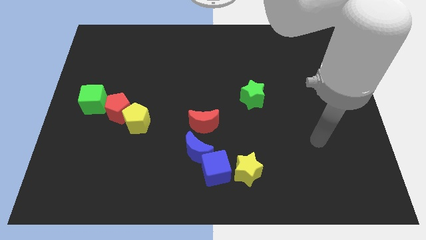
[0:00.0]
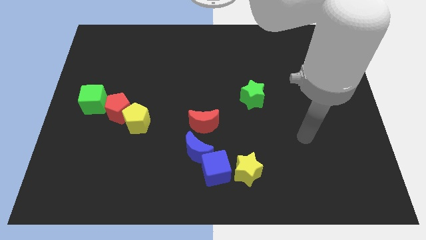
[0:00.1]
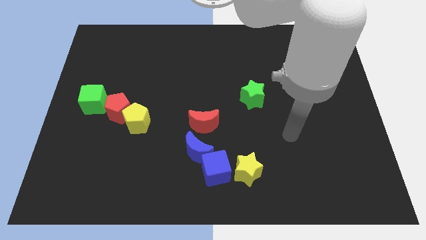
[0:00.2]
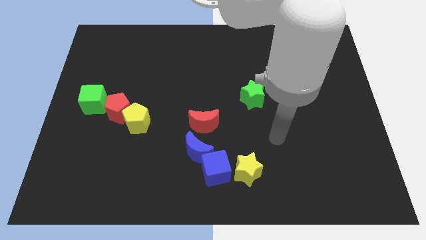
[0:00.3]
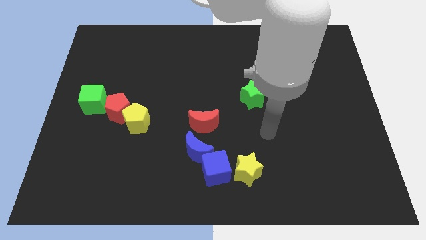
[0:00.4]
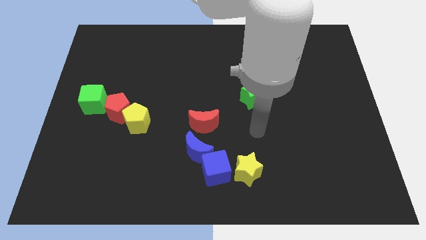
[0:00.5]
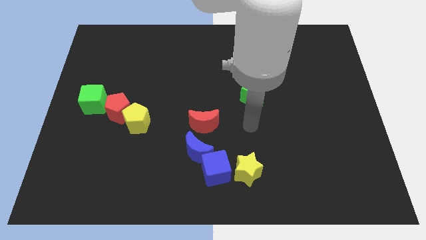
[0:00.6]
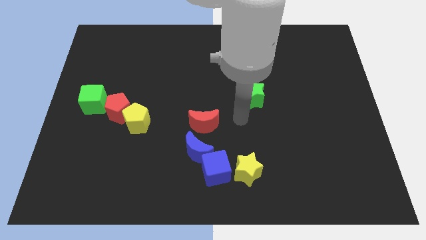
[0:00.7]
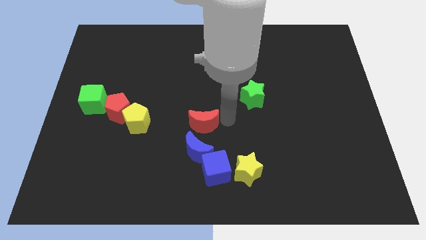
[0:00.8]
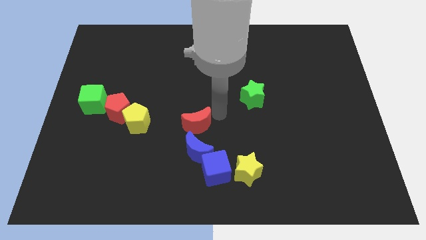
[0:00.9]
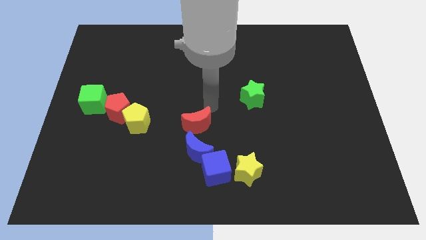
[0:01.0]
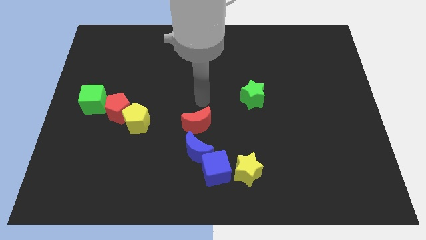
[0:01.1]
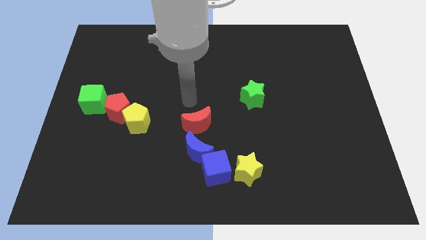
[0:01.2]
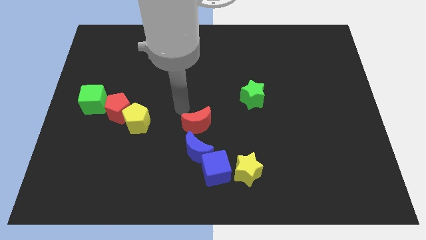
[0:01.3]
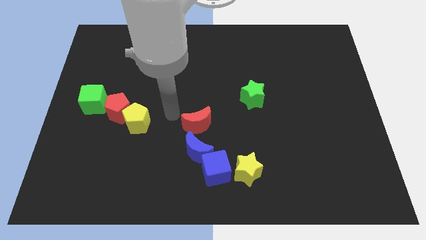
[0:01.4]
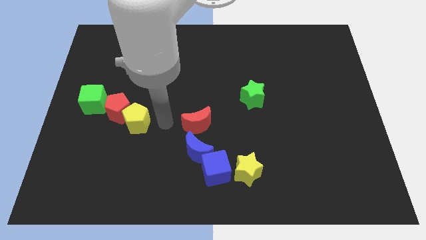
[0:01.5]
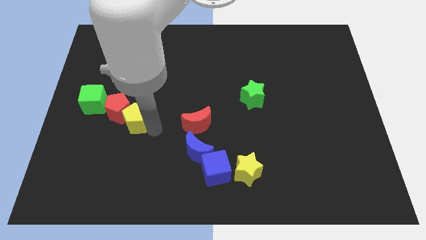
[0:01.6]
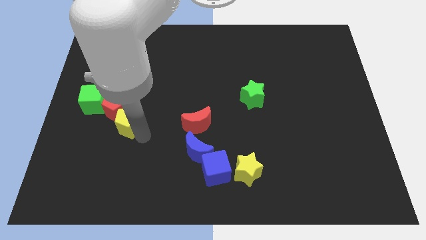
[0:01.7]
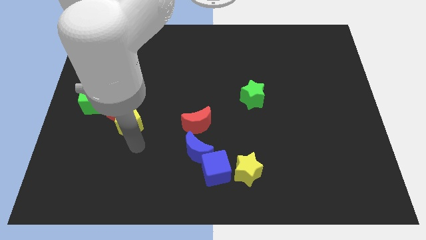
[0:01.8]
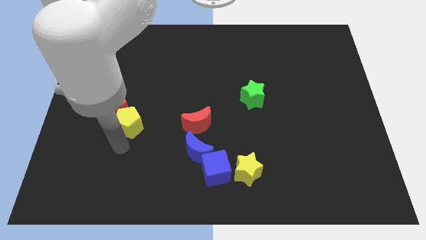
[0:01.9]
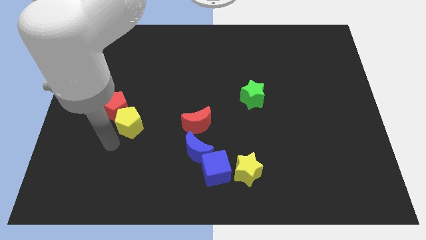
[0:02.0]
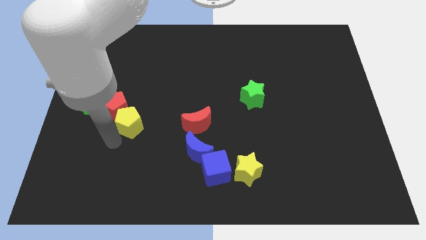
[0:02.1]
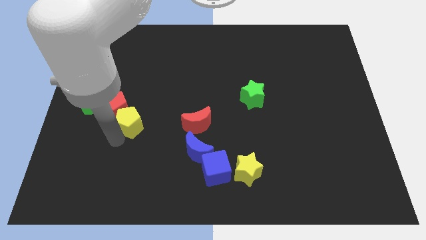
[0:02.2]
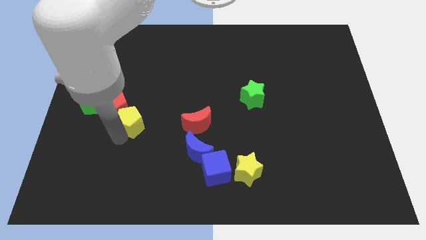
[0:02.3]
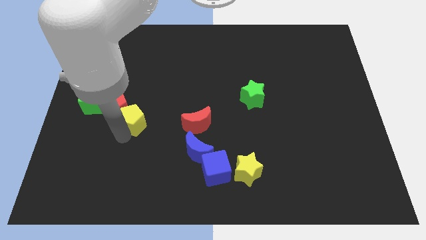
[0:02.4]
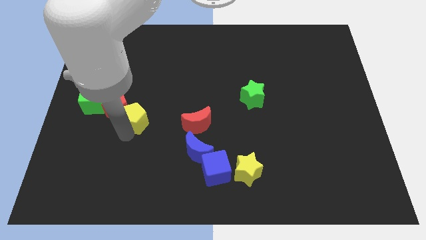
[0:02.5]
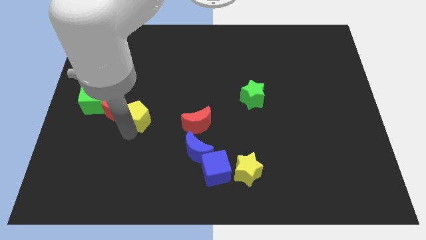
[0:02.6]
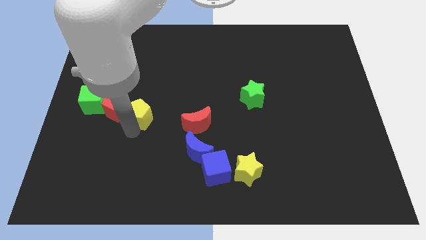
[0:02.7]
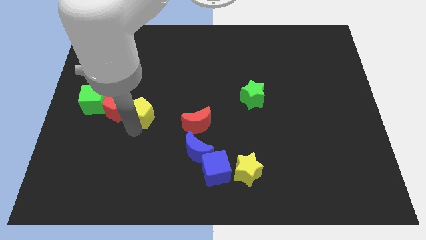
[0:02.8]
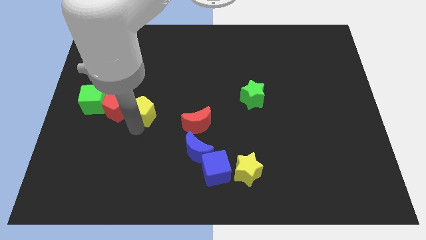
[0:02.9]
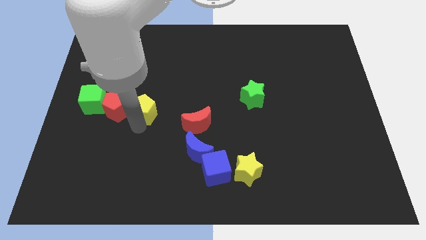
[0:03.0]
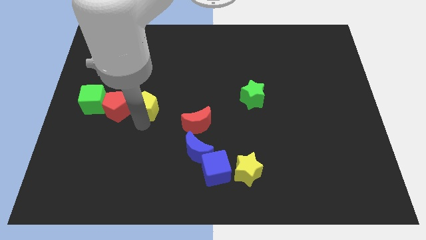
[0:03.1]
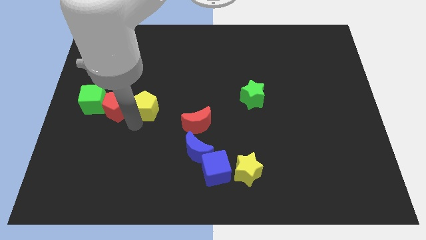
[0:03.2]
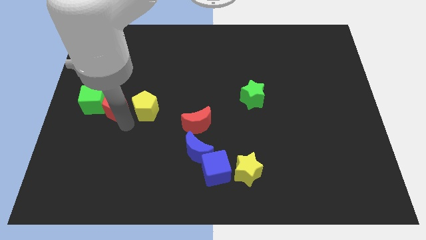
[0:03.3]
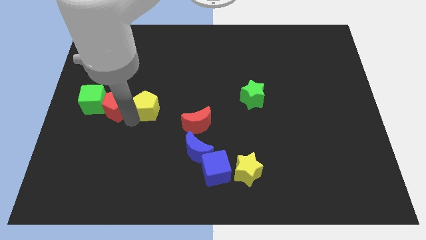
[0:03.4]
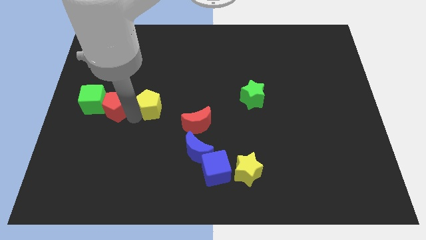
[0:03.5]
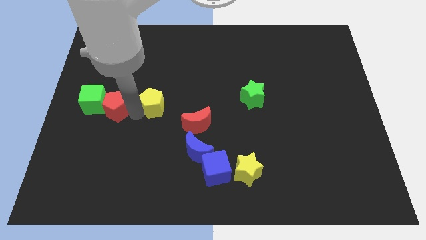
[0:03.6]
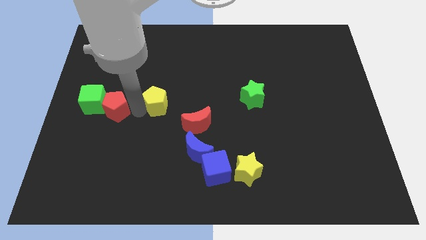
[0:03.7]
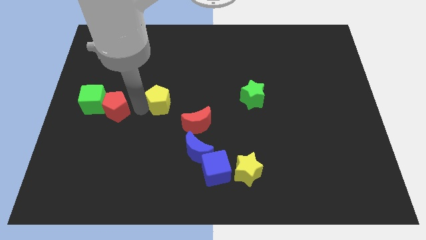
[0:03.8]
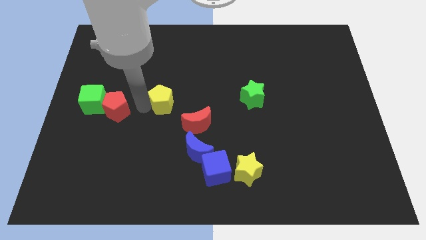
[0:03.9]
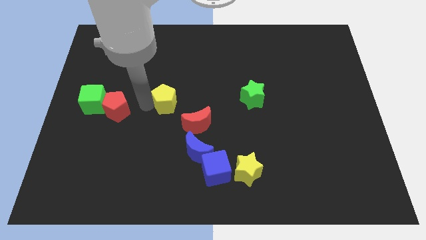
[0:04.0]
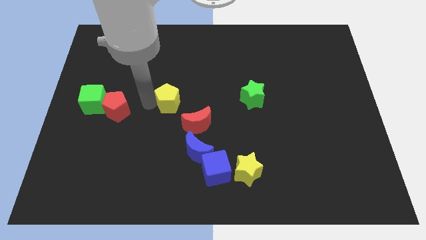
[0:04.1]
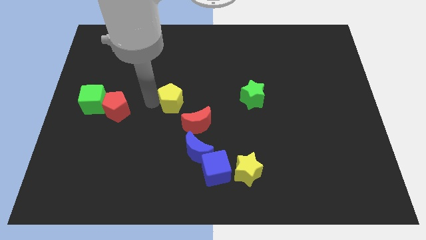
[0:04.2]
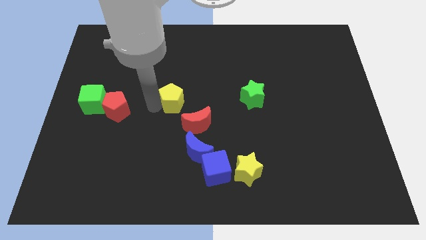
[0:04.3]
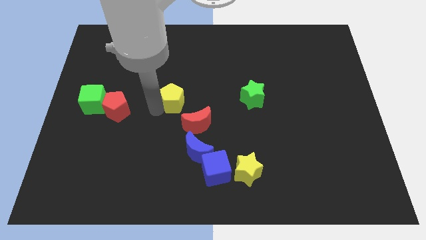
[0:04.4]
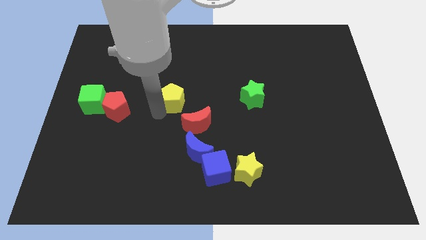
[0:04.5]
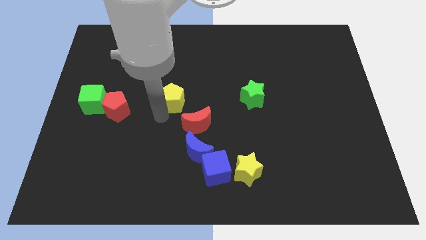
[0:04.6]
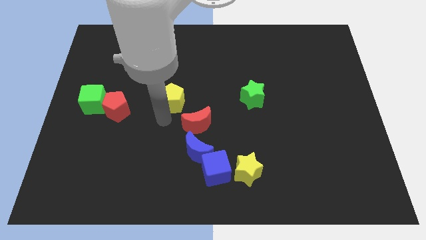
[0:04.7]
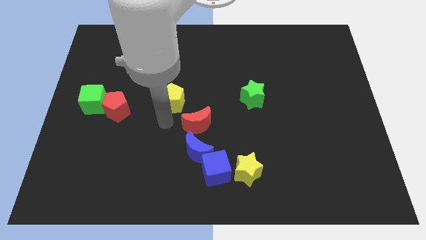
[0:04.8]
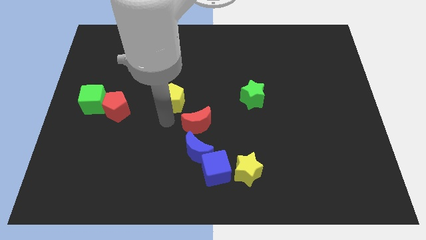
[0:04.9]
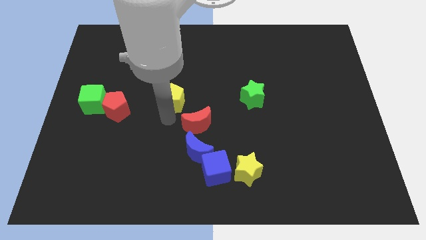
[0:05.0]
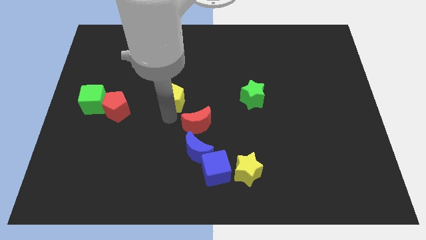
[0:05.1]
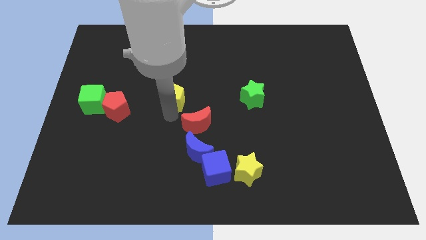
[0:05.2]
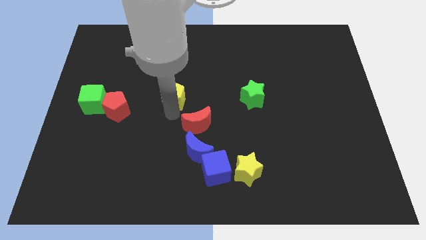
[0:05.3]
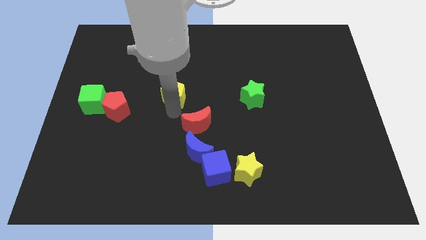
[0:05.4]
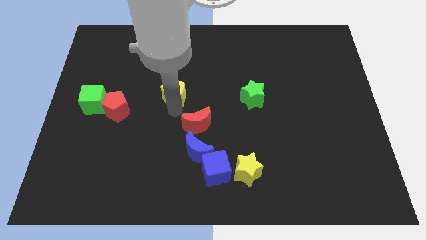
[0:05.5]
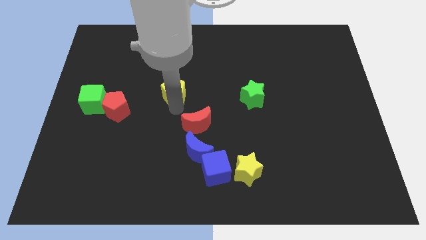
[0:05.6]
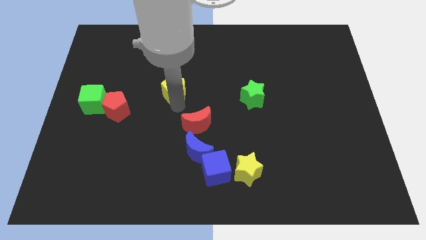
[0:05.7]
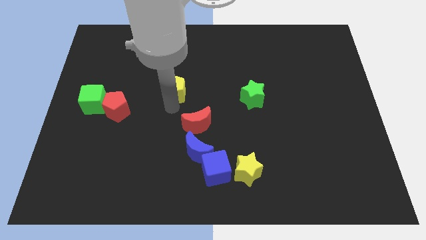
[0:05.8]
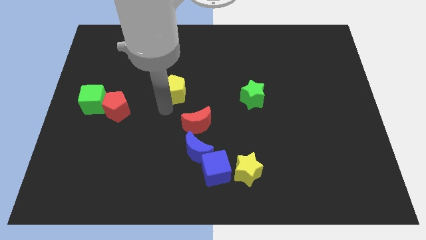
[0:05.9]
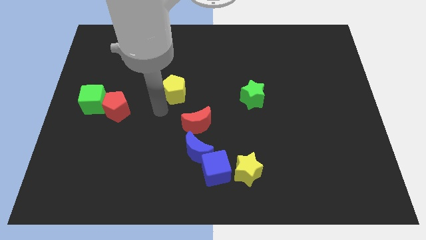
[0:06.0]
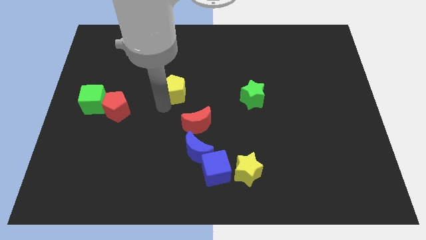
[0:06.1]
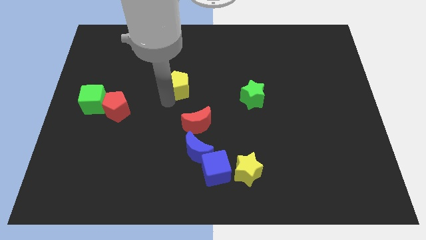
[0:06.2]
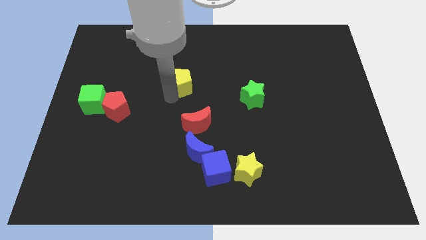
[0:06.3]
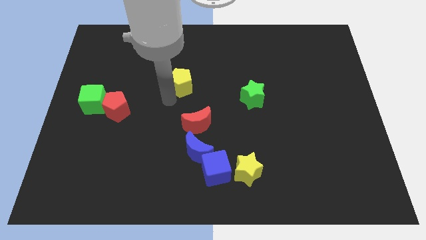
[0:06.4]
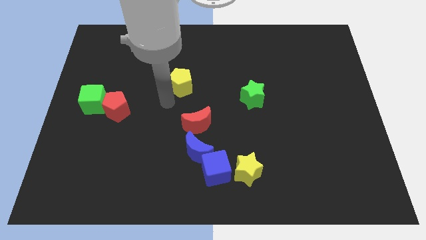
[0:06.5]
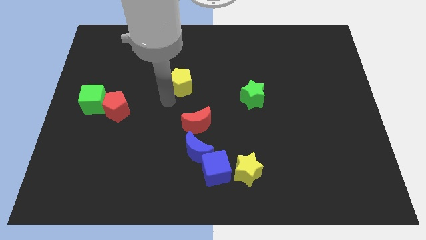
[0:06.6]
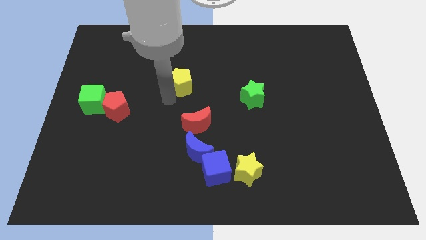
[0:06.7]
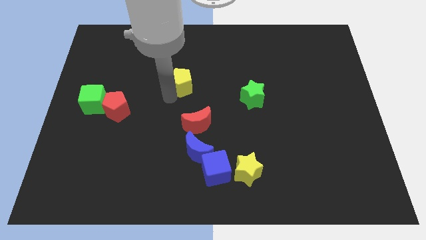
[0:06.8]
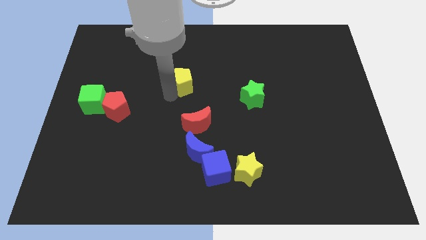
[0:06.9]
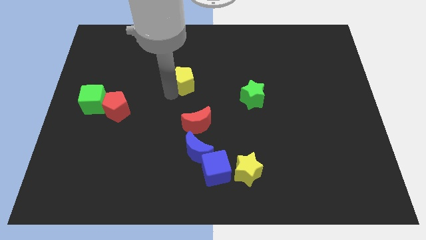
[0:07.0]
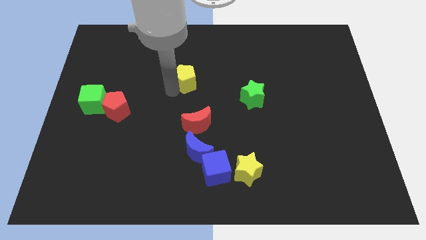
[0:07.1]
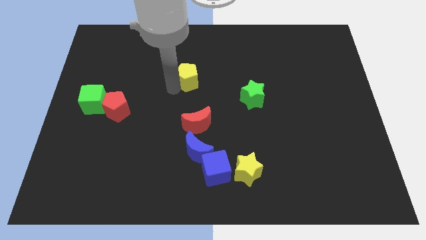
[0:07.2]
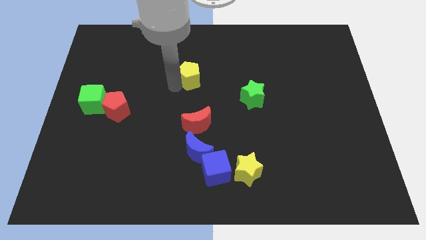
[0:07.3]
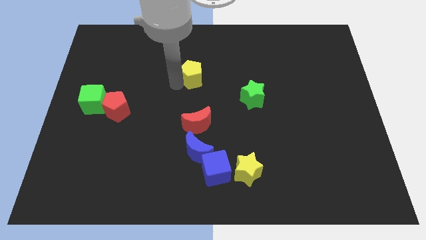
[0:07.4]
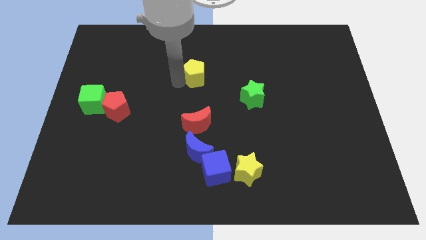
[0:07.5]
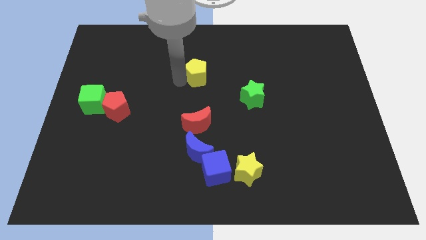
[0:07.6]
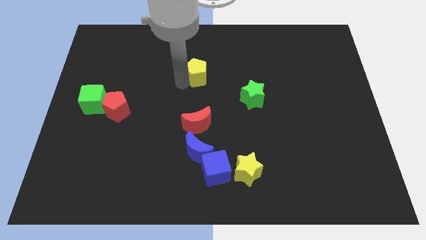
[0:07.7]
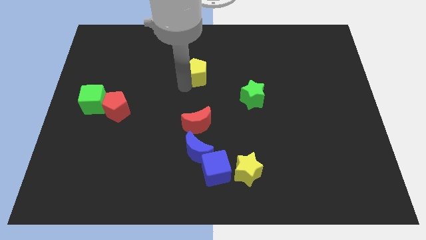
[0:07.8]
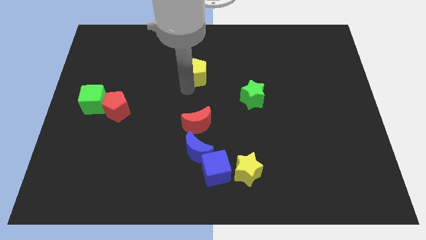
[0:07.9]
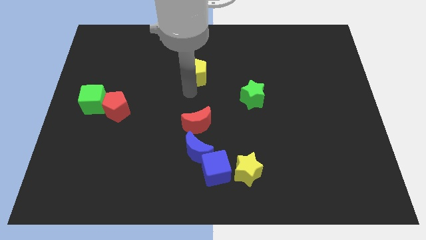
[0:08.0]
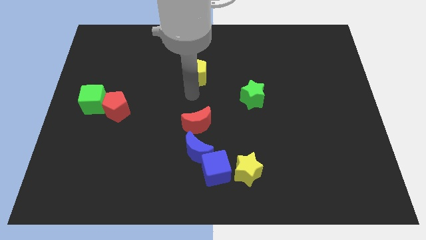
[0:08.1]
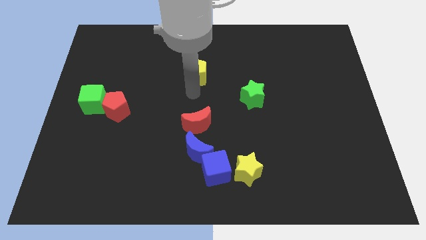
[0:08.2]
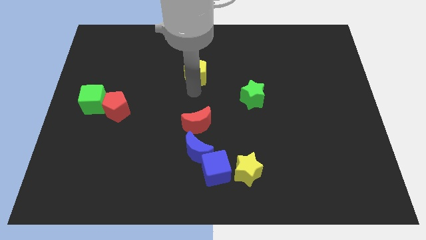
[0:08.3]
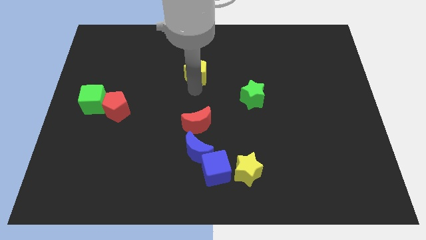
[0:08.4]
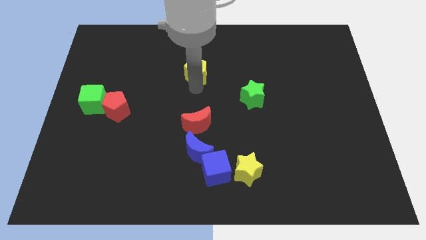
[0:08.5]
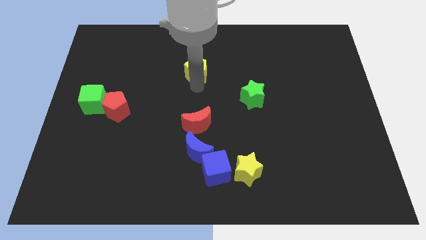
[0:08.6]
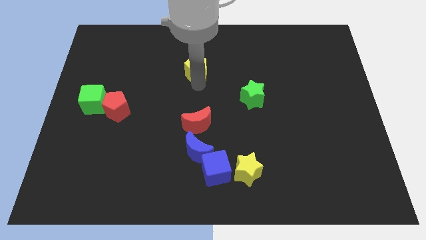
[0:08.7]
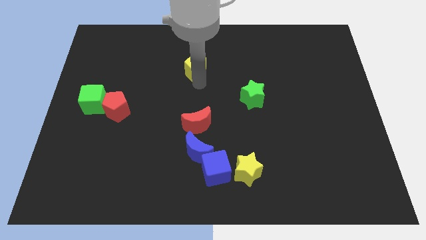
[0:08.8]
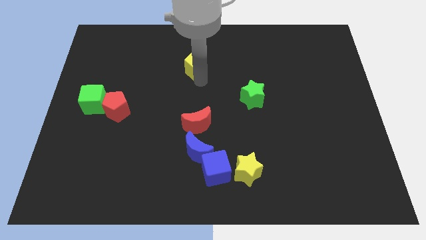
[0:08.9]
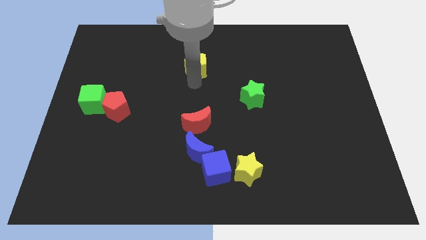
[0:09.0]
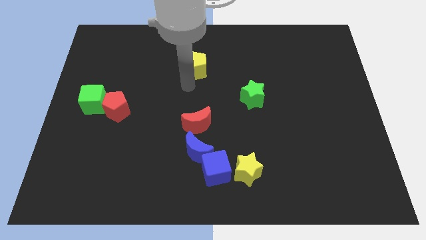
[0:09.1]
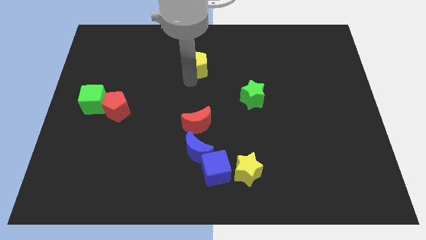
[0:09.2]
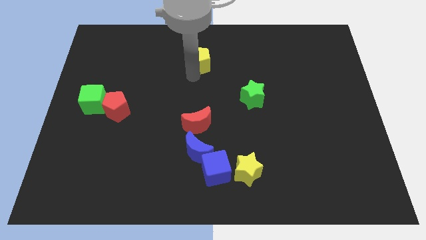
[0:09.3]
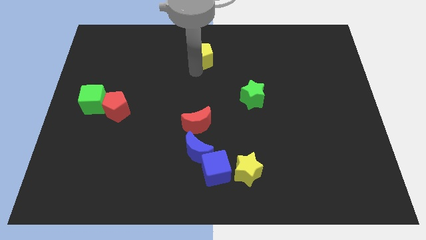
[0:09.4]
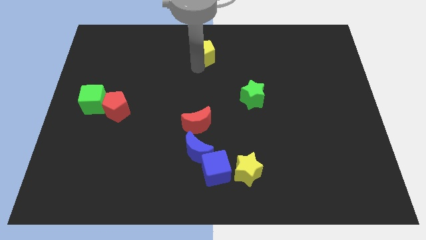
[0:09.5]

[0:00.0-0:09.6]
put the yellow pentagon to the top
